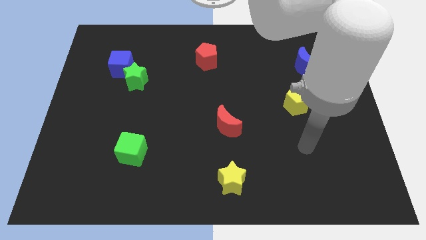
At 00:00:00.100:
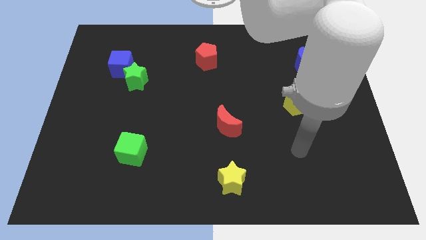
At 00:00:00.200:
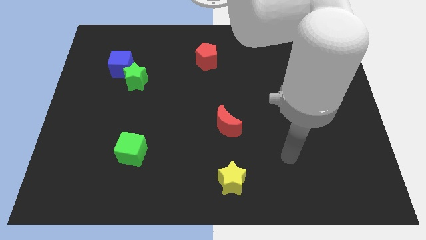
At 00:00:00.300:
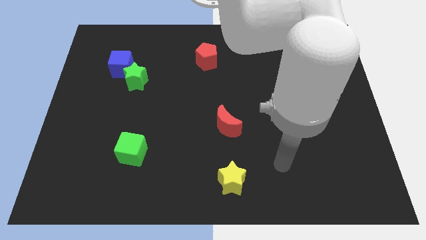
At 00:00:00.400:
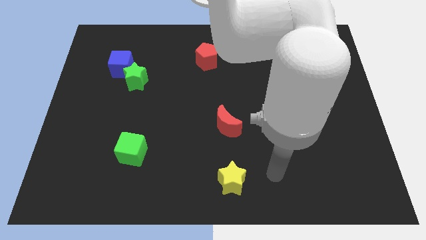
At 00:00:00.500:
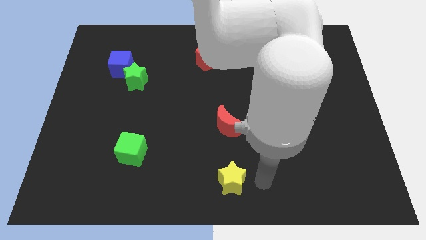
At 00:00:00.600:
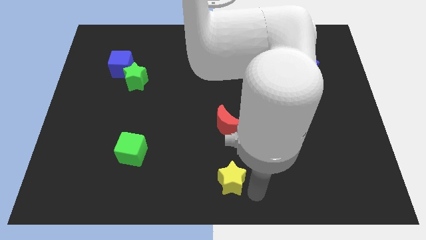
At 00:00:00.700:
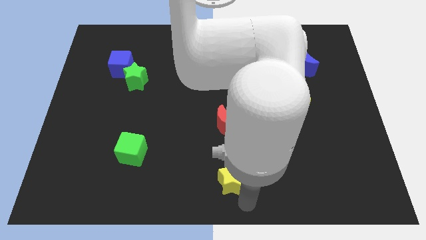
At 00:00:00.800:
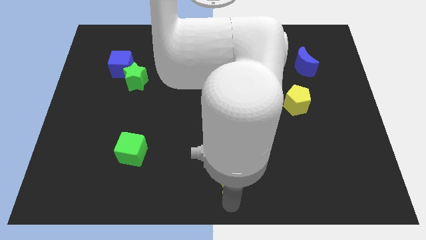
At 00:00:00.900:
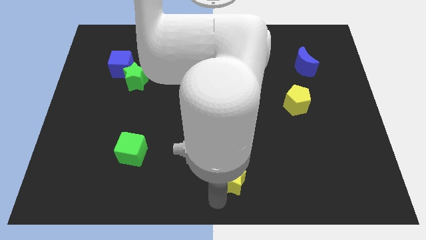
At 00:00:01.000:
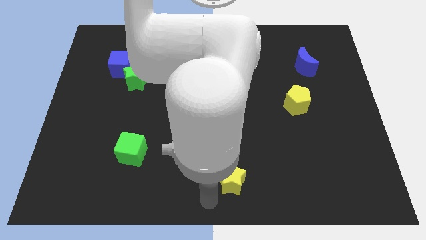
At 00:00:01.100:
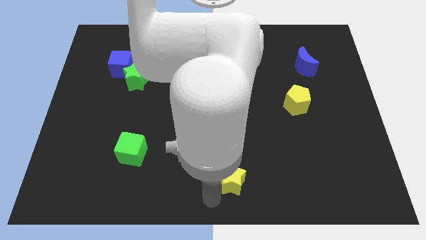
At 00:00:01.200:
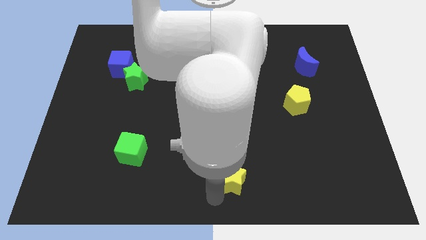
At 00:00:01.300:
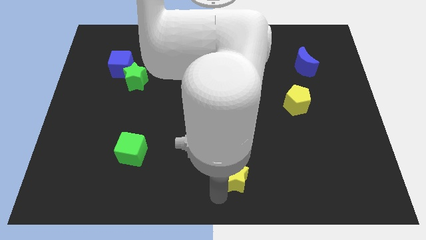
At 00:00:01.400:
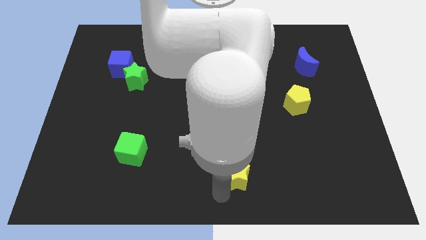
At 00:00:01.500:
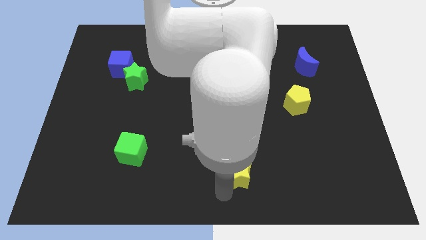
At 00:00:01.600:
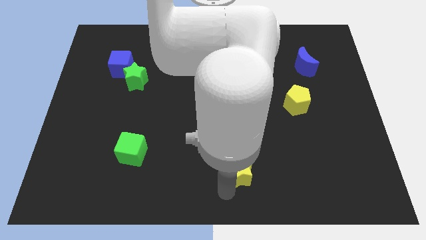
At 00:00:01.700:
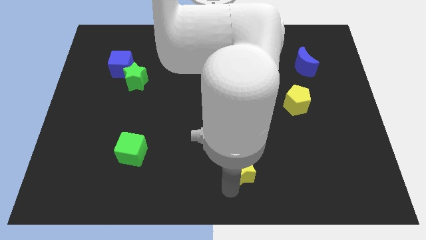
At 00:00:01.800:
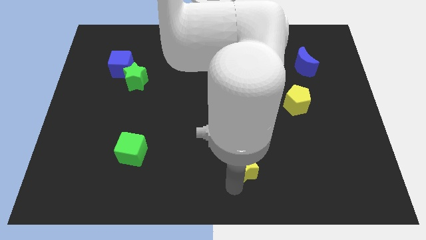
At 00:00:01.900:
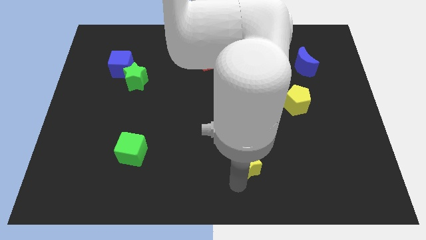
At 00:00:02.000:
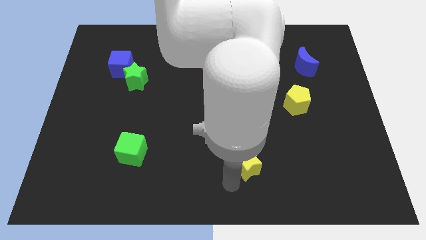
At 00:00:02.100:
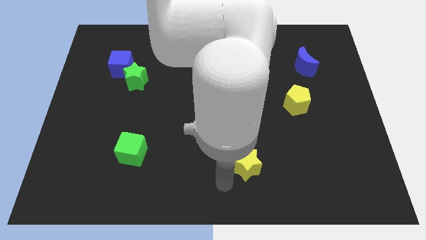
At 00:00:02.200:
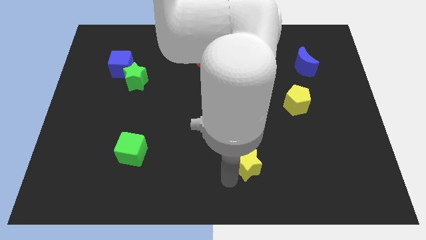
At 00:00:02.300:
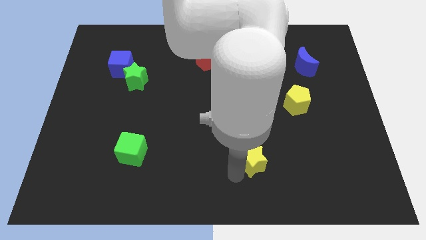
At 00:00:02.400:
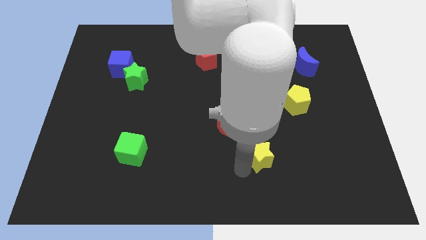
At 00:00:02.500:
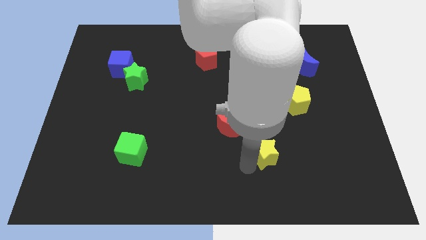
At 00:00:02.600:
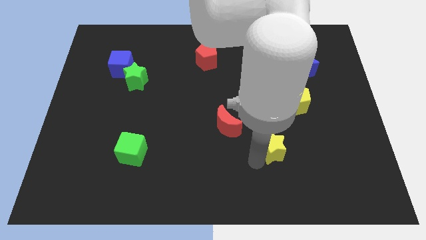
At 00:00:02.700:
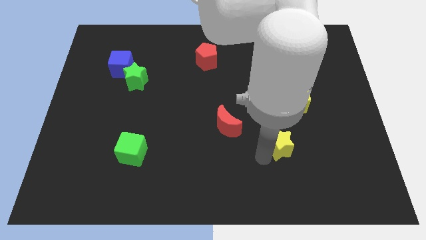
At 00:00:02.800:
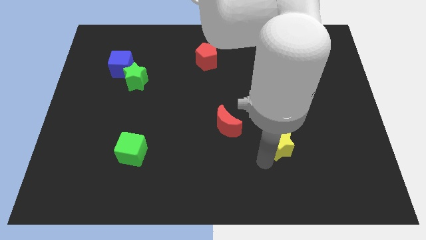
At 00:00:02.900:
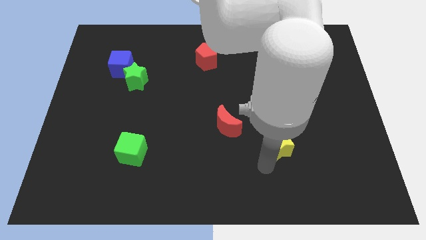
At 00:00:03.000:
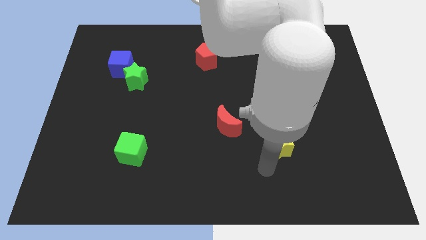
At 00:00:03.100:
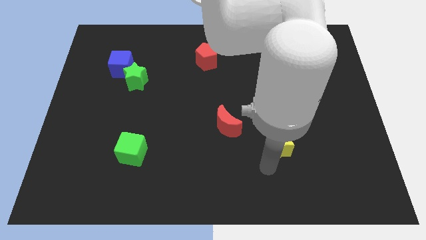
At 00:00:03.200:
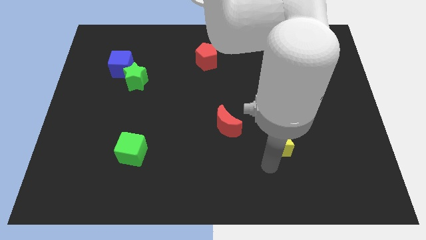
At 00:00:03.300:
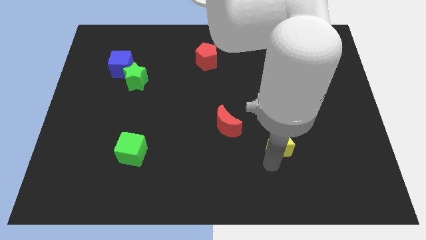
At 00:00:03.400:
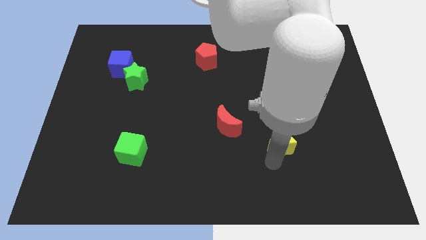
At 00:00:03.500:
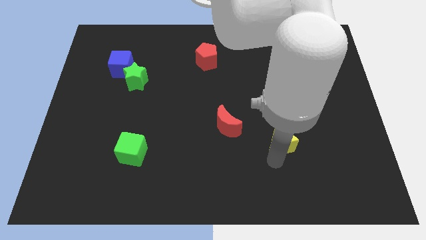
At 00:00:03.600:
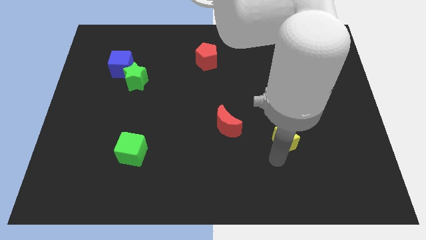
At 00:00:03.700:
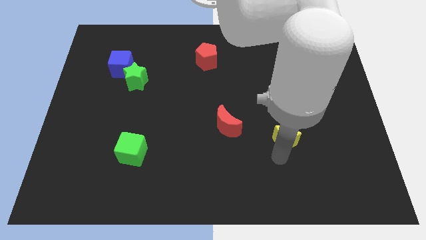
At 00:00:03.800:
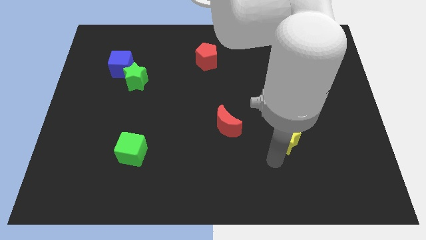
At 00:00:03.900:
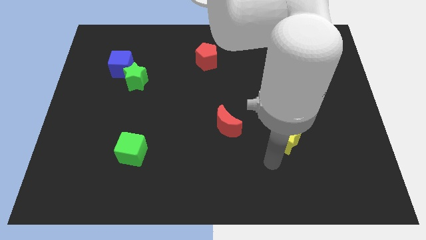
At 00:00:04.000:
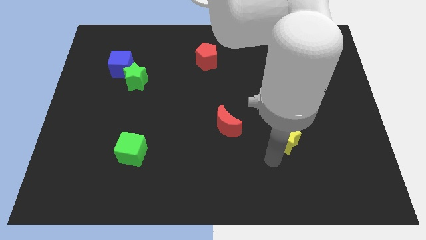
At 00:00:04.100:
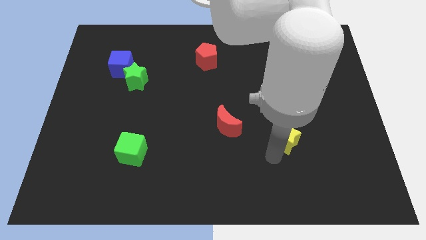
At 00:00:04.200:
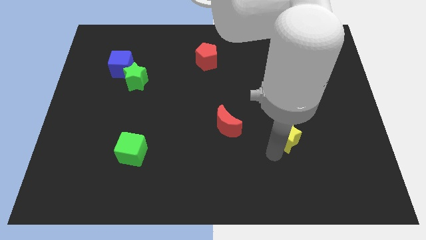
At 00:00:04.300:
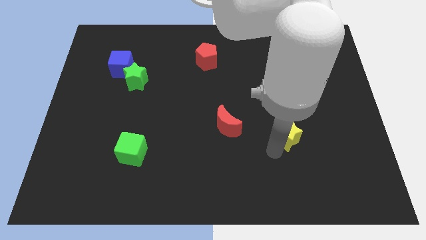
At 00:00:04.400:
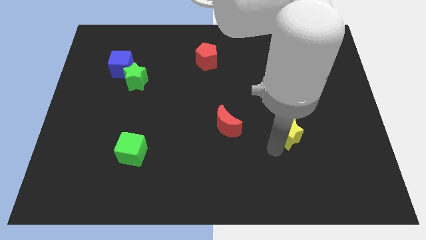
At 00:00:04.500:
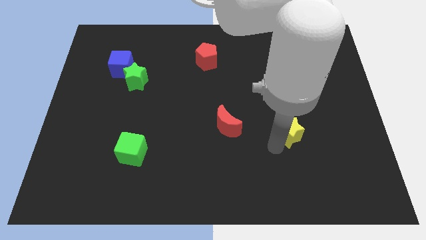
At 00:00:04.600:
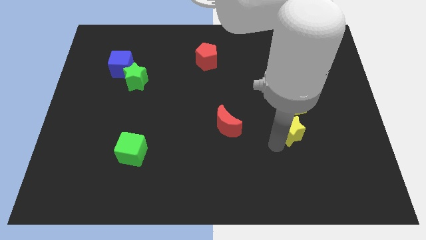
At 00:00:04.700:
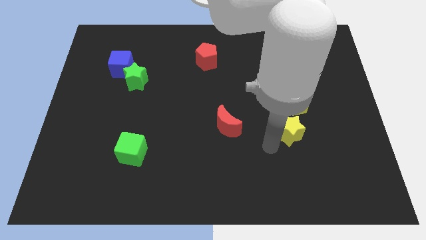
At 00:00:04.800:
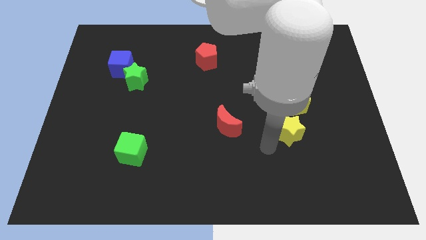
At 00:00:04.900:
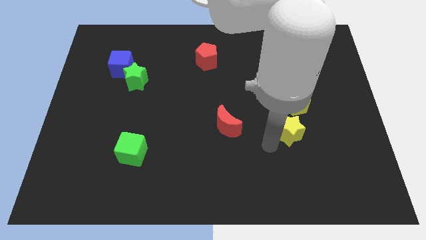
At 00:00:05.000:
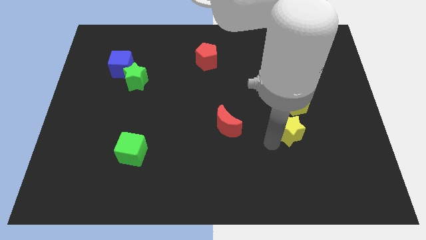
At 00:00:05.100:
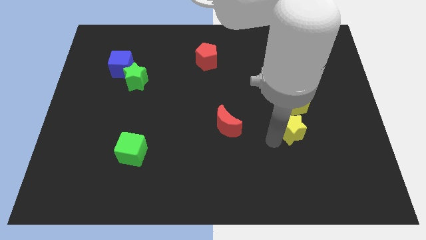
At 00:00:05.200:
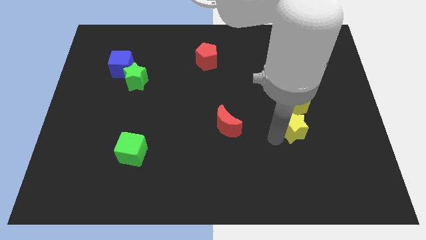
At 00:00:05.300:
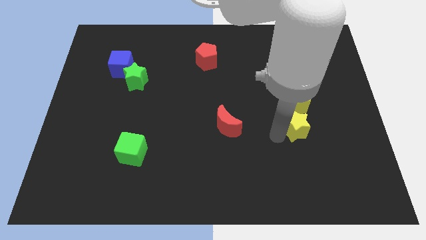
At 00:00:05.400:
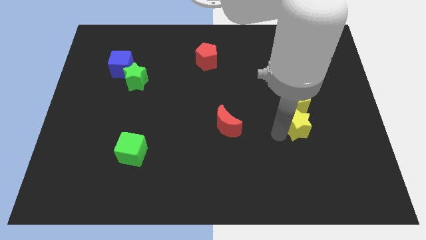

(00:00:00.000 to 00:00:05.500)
push the yellow star up and to the right diagonally

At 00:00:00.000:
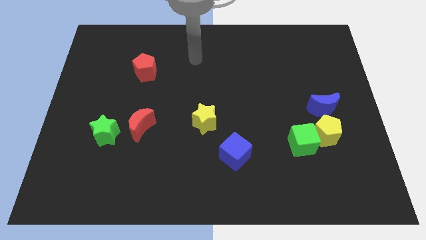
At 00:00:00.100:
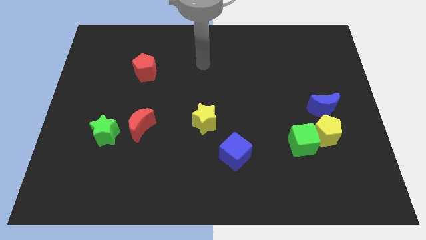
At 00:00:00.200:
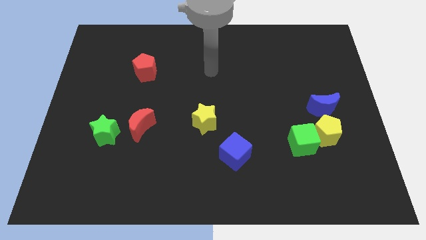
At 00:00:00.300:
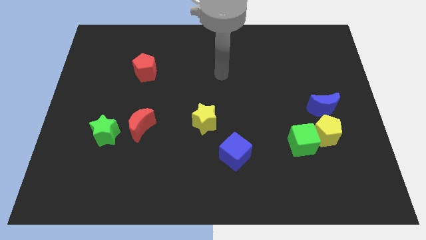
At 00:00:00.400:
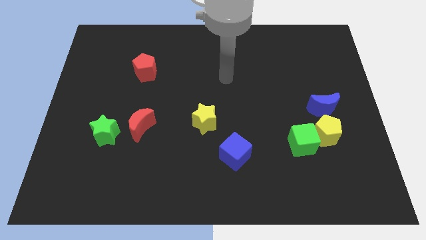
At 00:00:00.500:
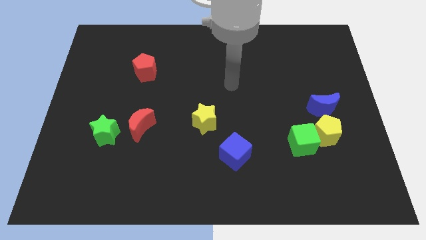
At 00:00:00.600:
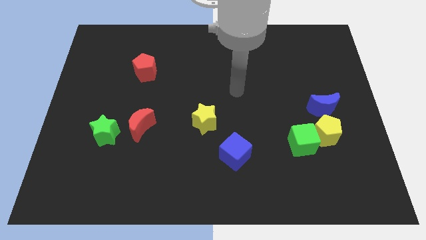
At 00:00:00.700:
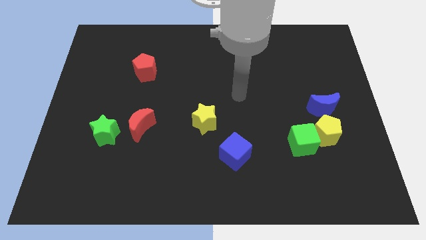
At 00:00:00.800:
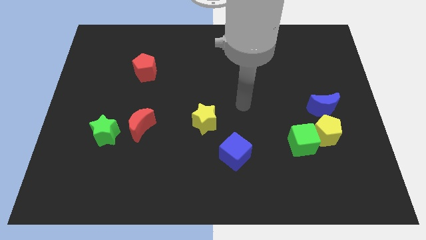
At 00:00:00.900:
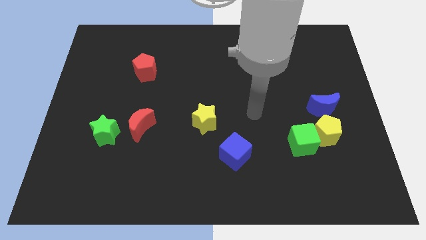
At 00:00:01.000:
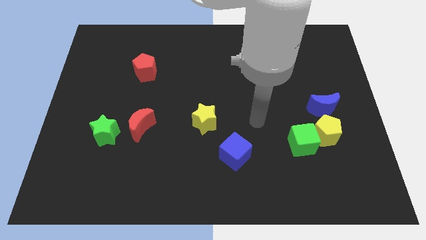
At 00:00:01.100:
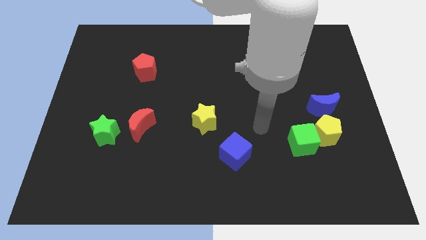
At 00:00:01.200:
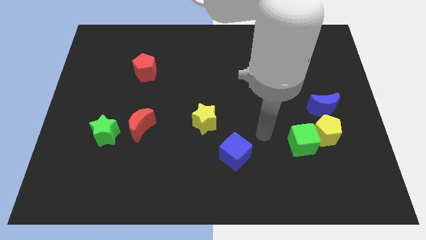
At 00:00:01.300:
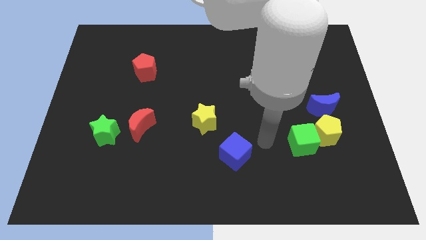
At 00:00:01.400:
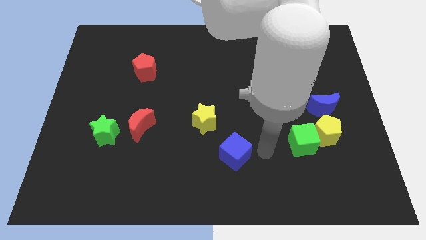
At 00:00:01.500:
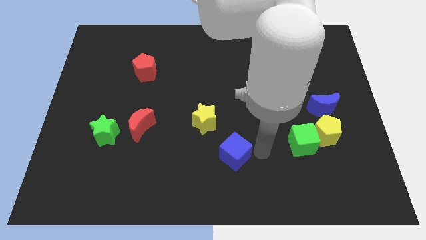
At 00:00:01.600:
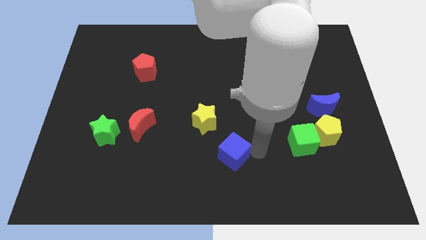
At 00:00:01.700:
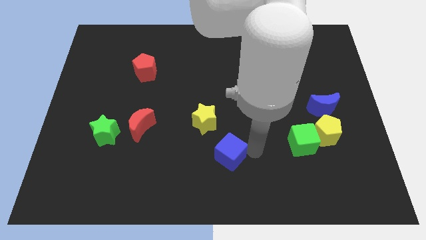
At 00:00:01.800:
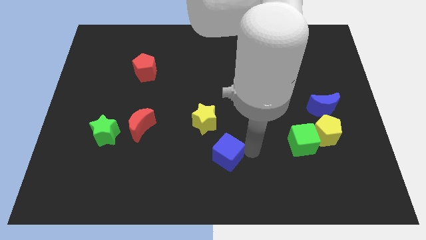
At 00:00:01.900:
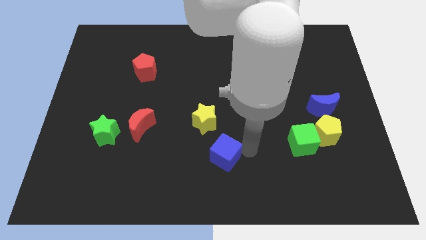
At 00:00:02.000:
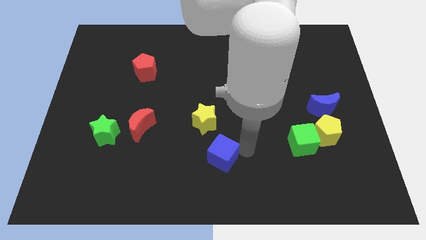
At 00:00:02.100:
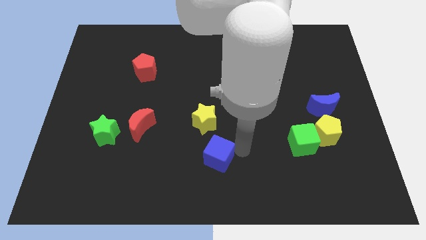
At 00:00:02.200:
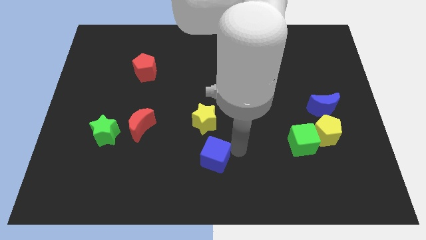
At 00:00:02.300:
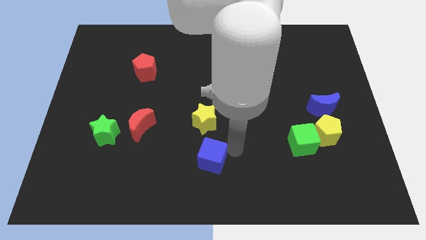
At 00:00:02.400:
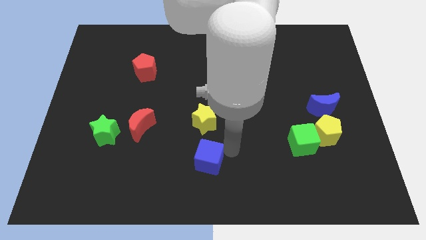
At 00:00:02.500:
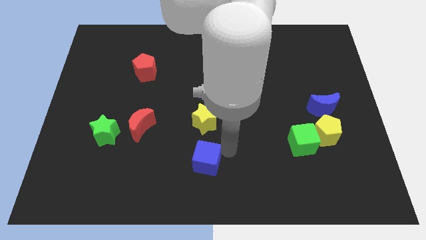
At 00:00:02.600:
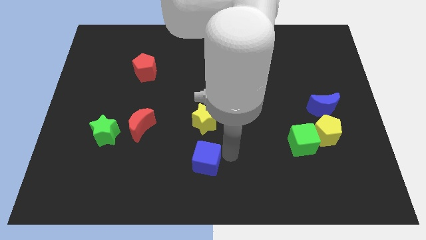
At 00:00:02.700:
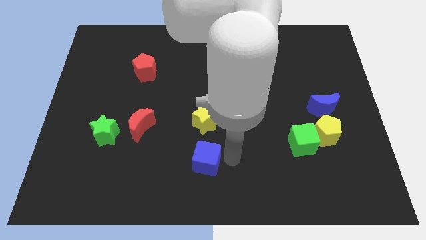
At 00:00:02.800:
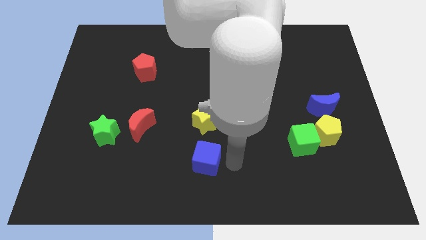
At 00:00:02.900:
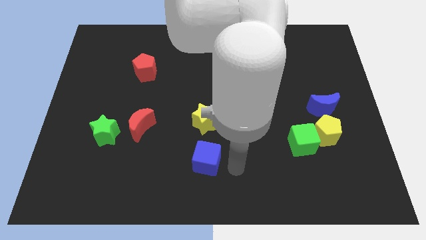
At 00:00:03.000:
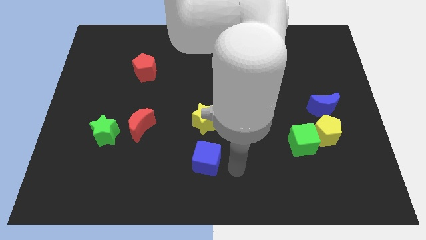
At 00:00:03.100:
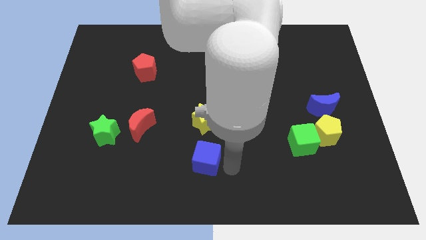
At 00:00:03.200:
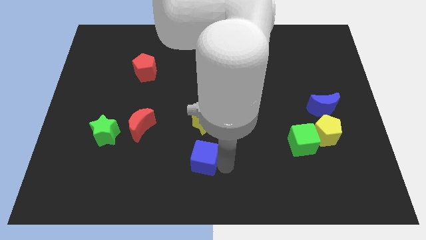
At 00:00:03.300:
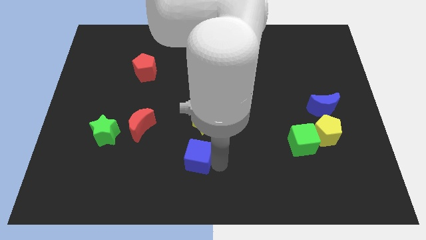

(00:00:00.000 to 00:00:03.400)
move the blue cube to the left a little bit
